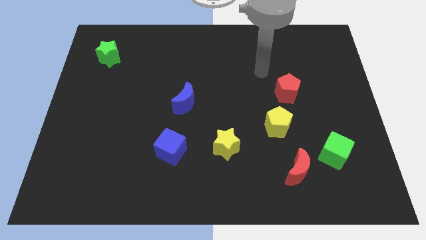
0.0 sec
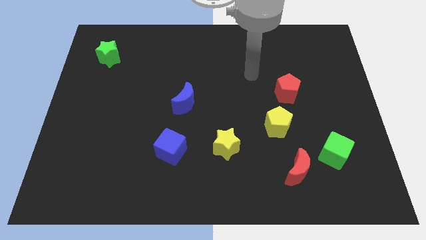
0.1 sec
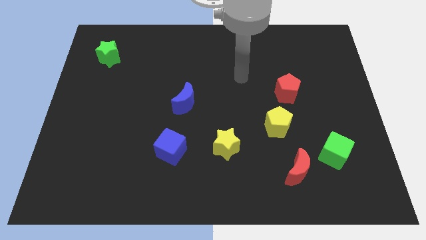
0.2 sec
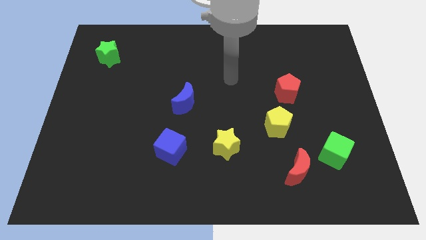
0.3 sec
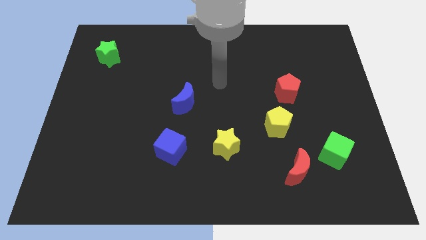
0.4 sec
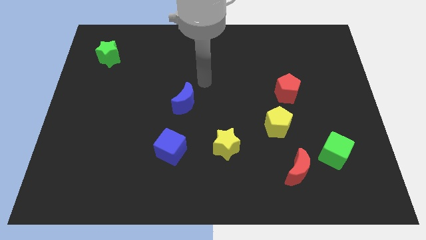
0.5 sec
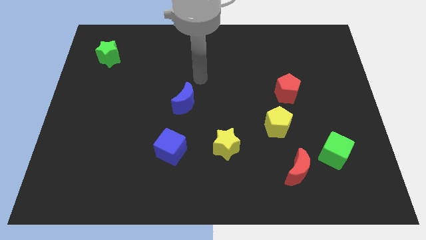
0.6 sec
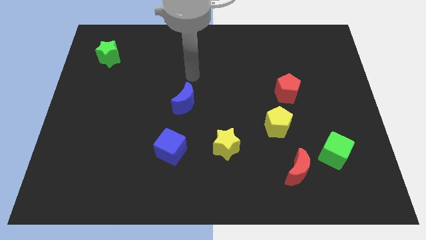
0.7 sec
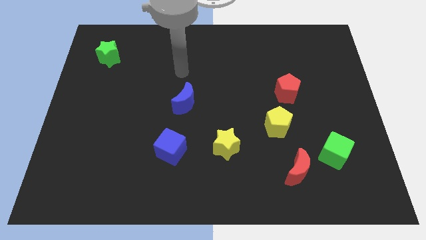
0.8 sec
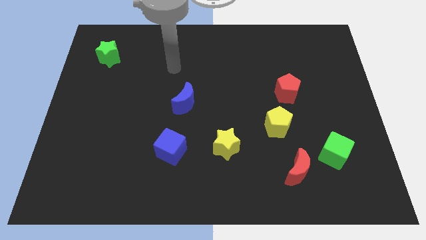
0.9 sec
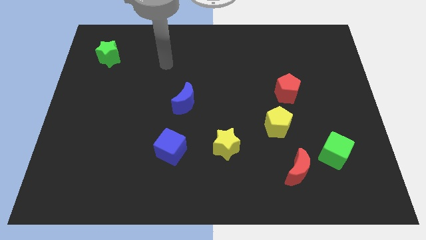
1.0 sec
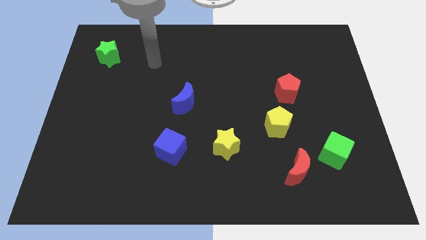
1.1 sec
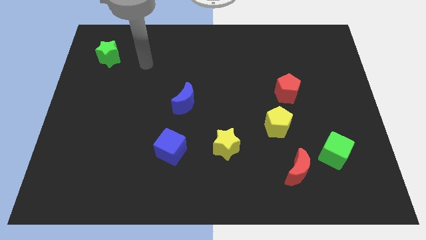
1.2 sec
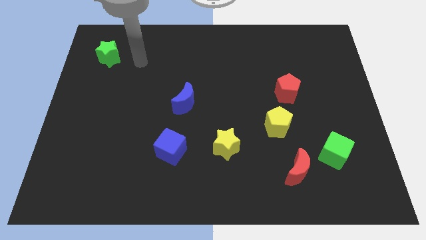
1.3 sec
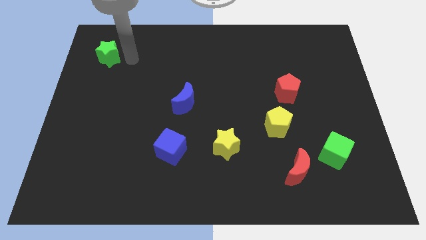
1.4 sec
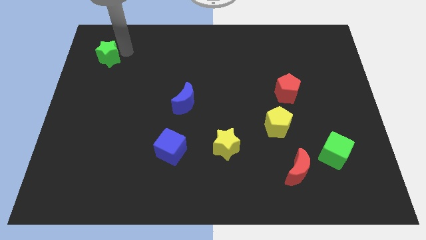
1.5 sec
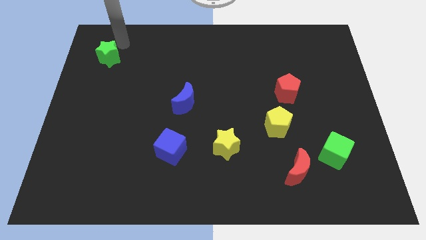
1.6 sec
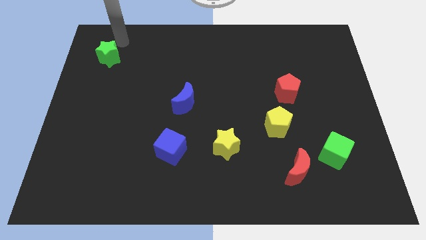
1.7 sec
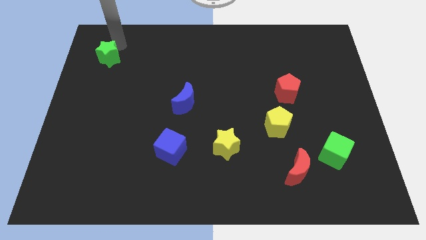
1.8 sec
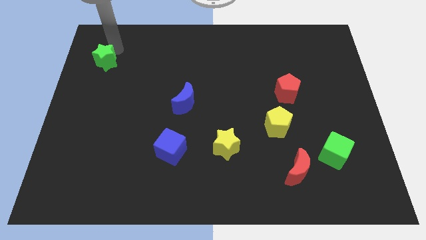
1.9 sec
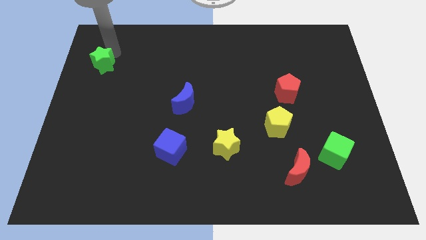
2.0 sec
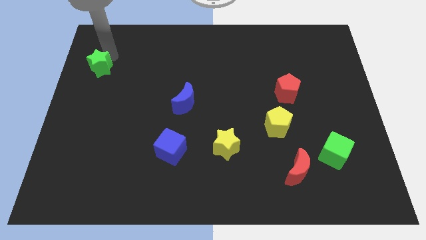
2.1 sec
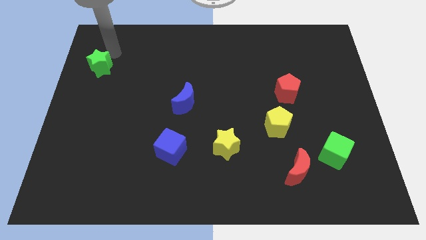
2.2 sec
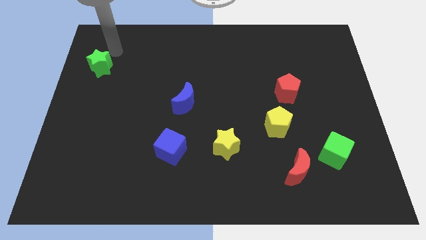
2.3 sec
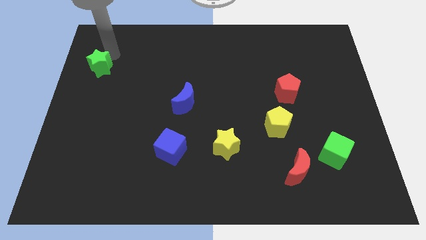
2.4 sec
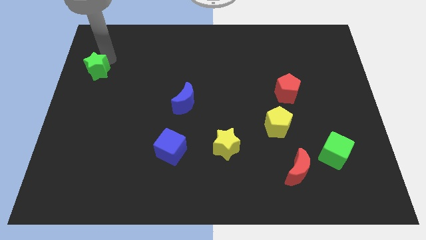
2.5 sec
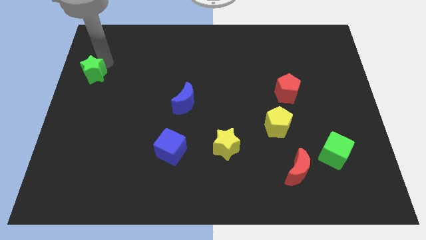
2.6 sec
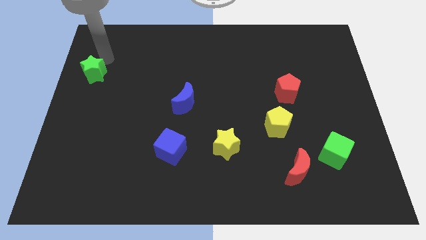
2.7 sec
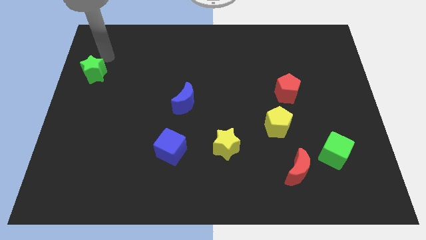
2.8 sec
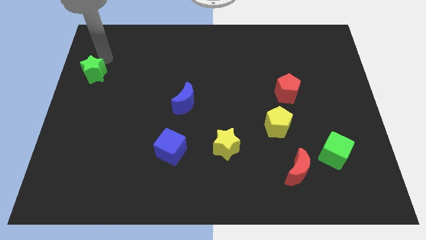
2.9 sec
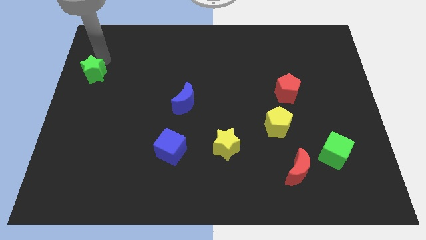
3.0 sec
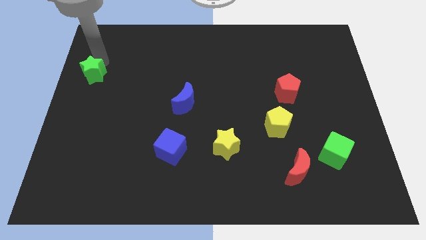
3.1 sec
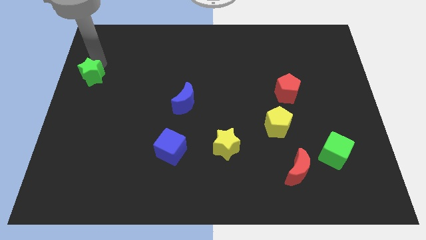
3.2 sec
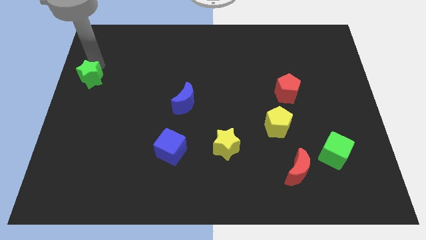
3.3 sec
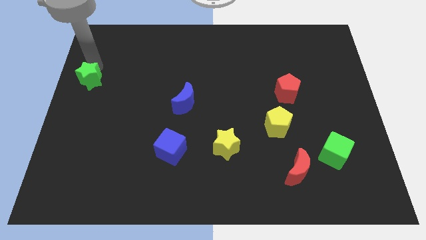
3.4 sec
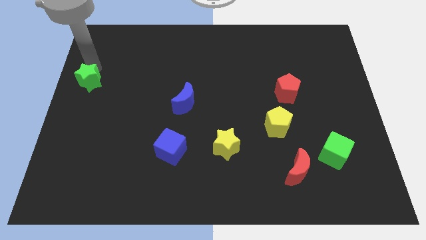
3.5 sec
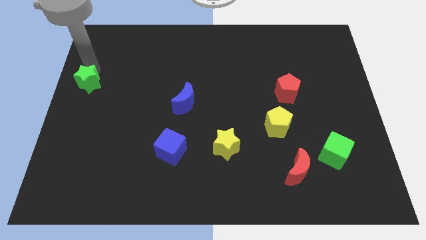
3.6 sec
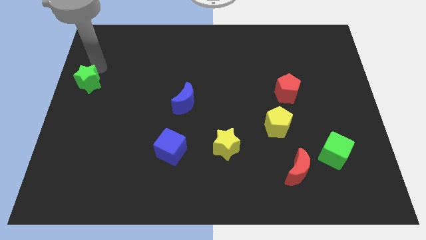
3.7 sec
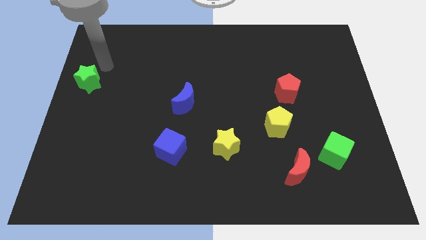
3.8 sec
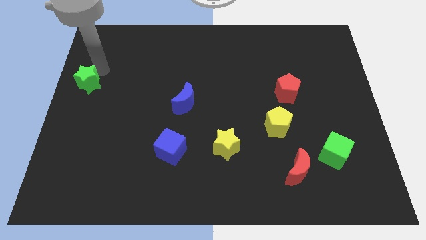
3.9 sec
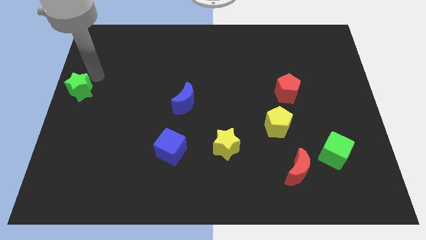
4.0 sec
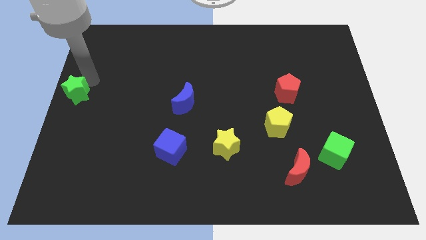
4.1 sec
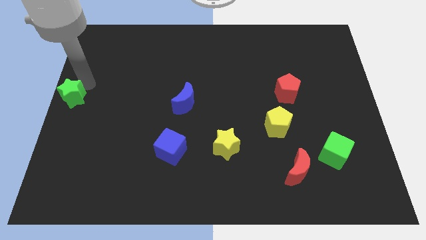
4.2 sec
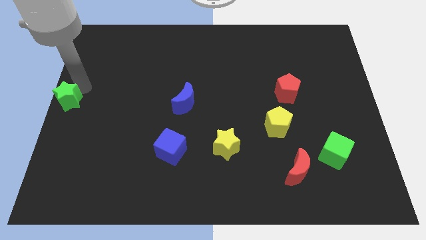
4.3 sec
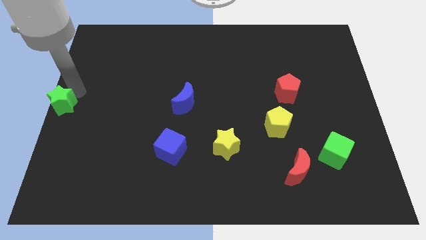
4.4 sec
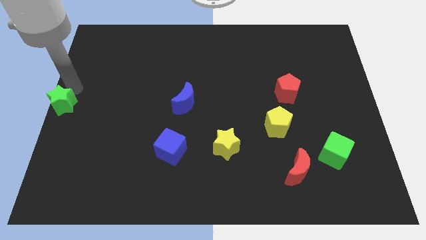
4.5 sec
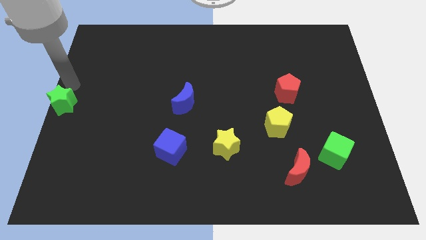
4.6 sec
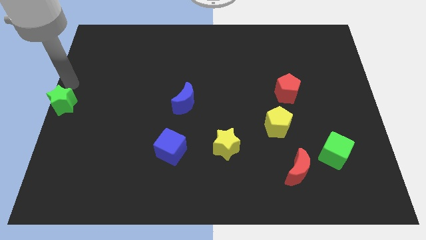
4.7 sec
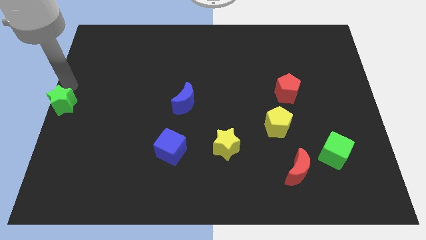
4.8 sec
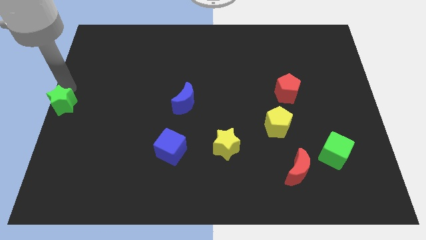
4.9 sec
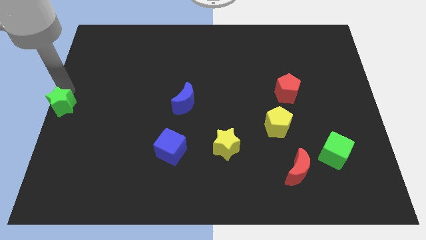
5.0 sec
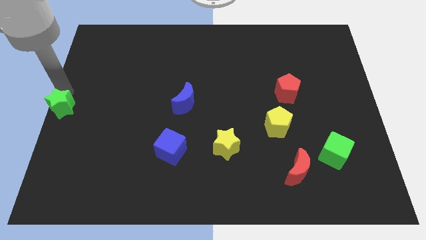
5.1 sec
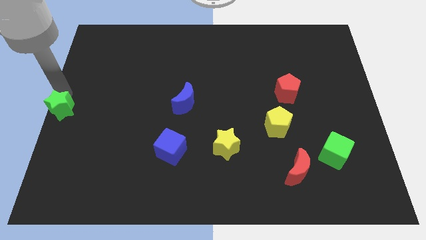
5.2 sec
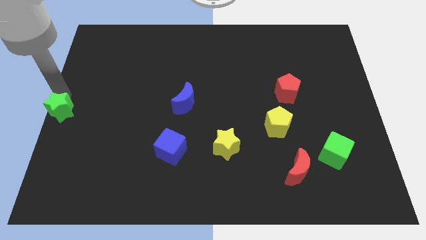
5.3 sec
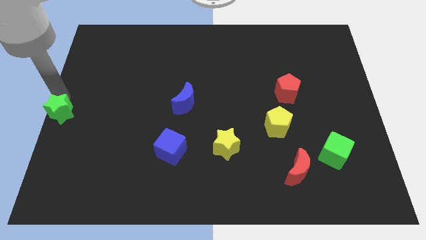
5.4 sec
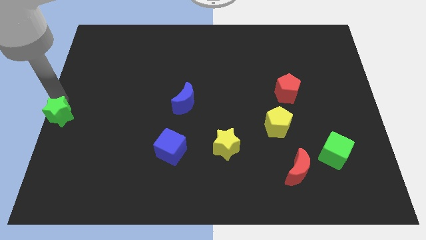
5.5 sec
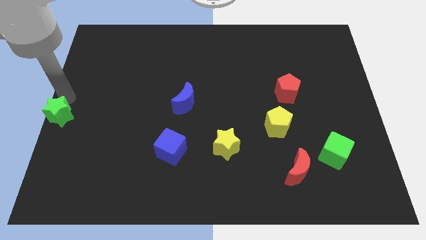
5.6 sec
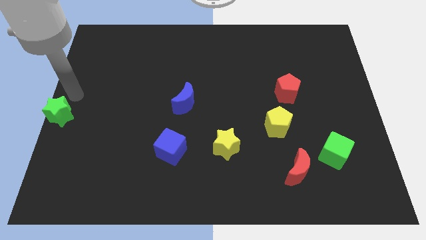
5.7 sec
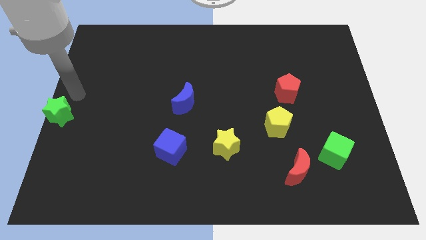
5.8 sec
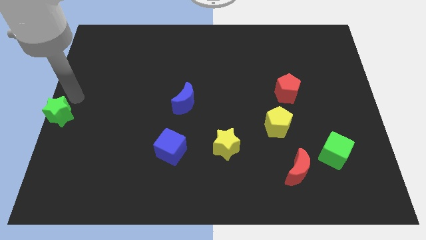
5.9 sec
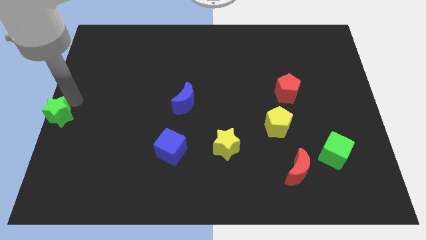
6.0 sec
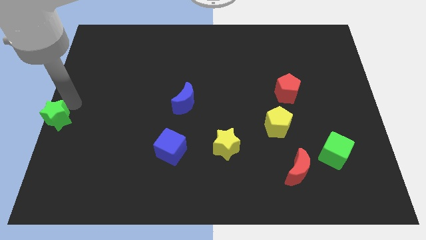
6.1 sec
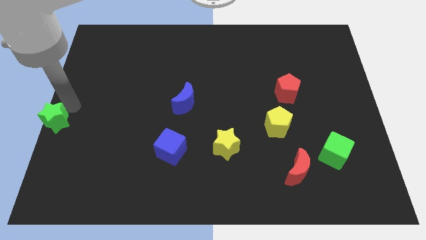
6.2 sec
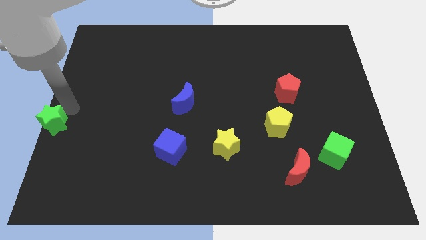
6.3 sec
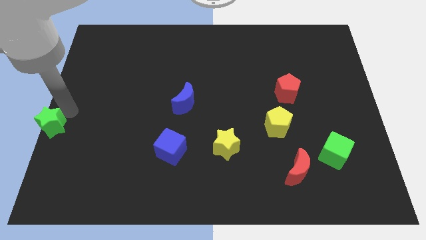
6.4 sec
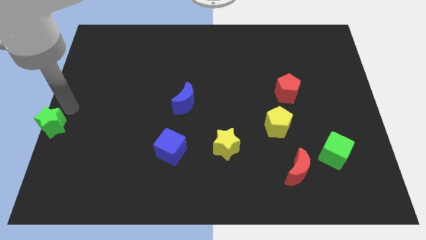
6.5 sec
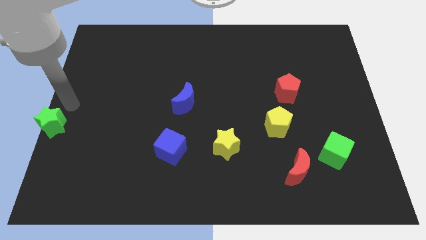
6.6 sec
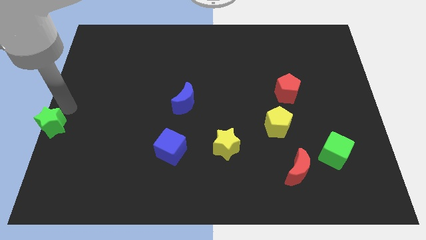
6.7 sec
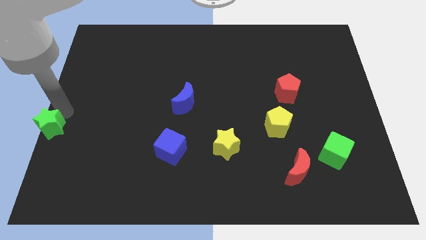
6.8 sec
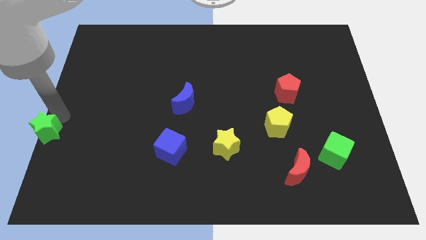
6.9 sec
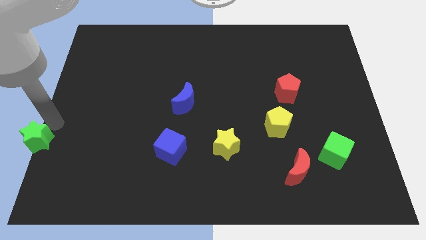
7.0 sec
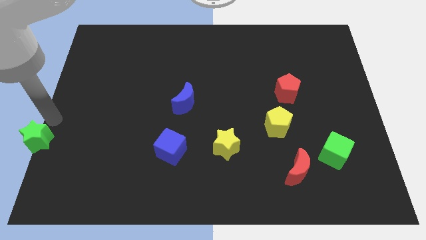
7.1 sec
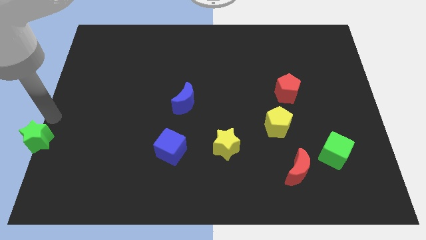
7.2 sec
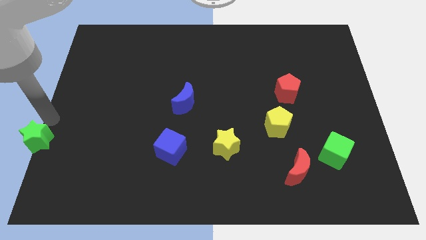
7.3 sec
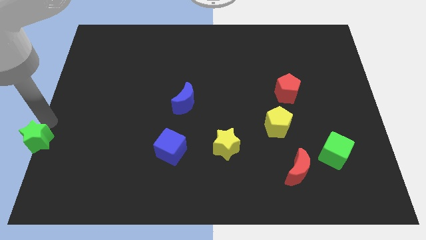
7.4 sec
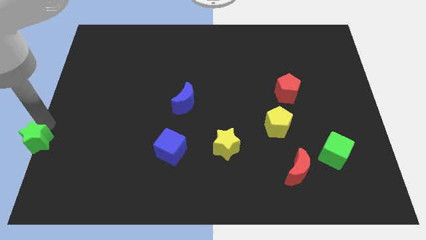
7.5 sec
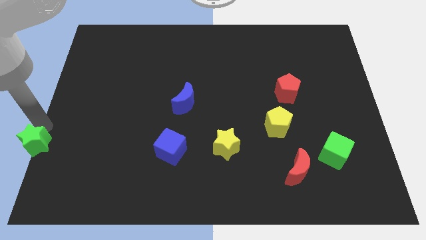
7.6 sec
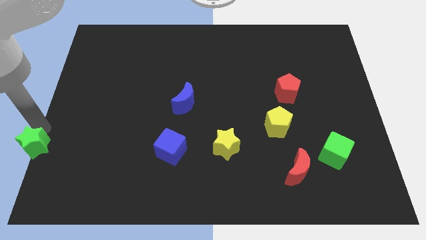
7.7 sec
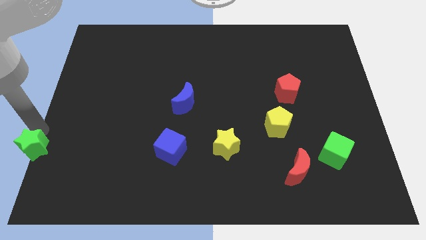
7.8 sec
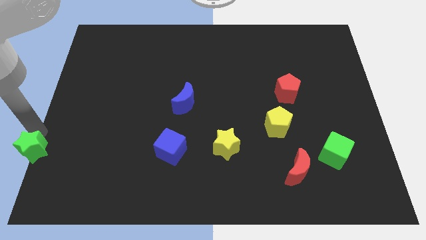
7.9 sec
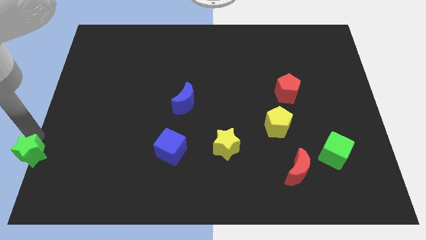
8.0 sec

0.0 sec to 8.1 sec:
move the green star to the bottom left corner
